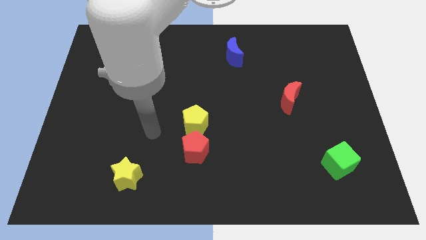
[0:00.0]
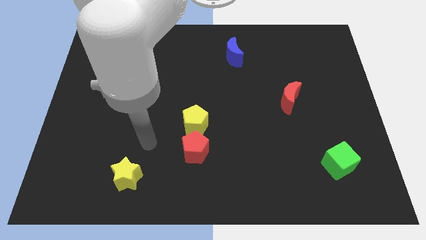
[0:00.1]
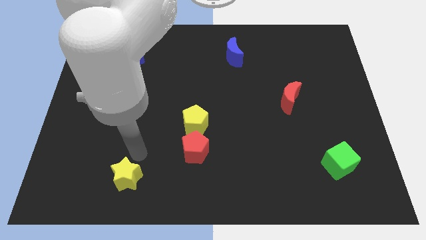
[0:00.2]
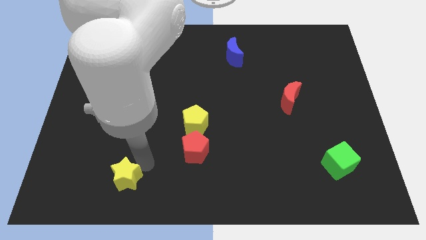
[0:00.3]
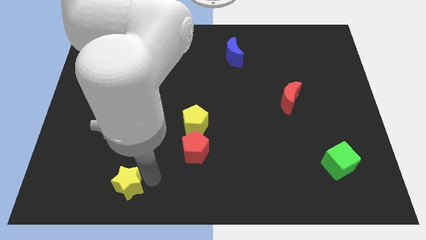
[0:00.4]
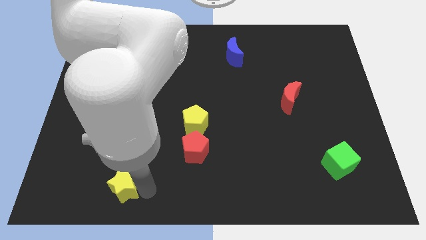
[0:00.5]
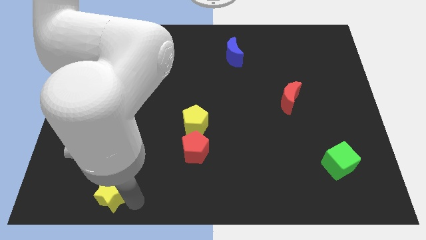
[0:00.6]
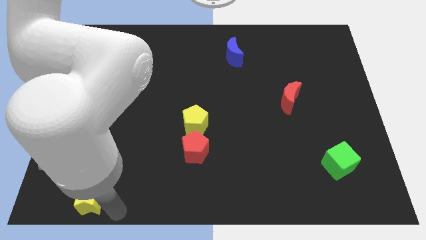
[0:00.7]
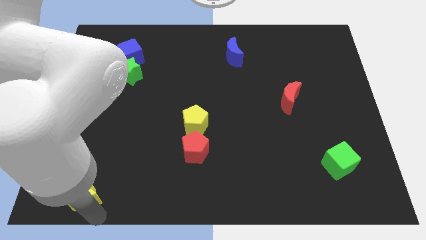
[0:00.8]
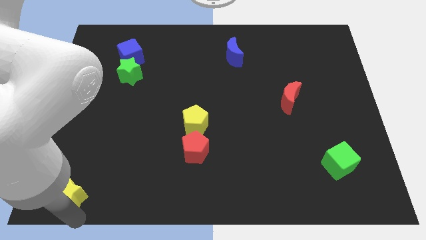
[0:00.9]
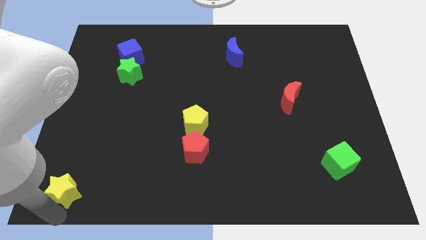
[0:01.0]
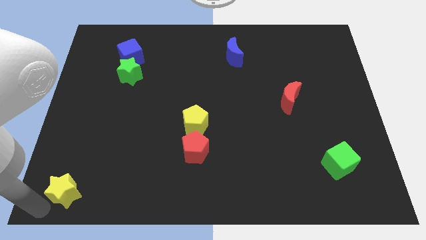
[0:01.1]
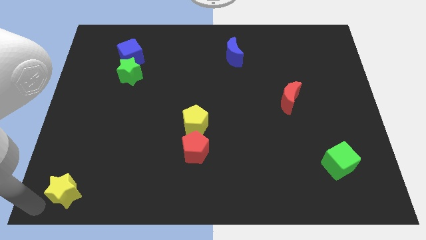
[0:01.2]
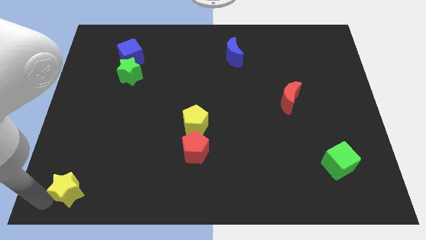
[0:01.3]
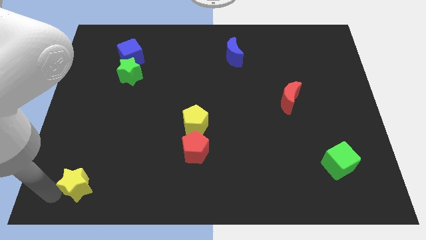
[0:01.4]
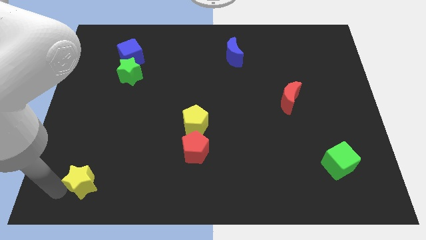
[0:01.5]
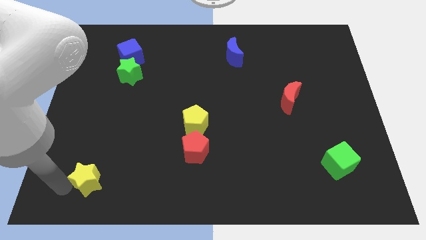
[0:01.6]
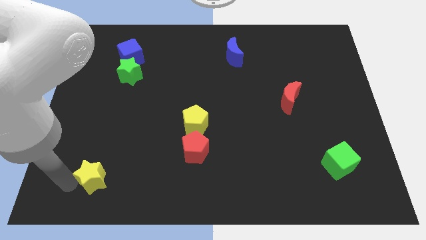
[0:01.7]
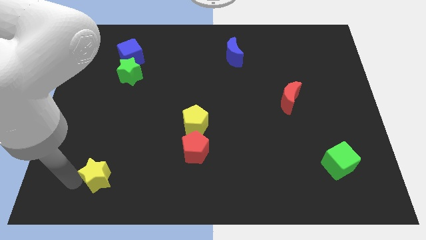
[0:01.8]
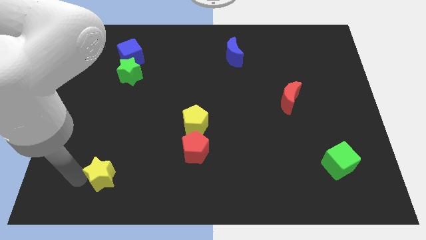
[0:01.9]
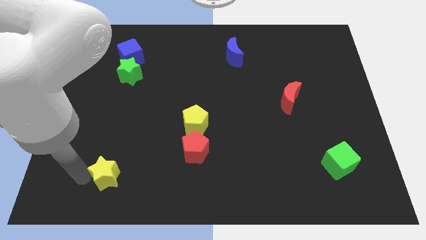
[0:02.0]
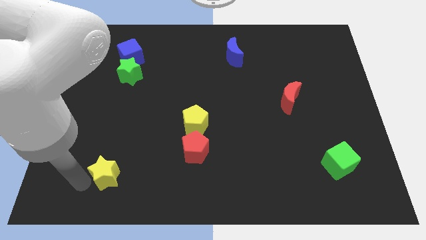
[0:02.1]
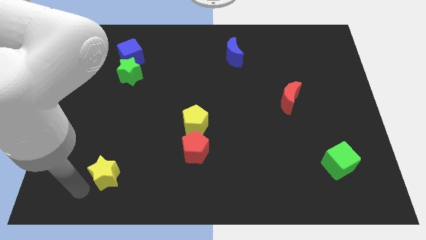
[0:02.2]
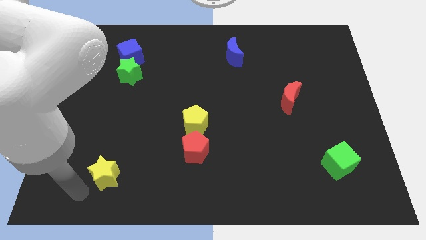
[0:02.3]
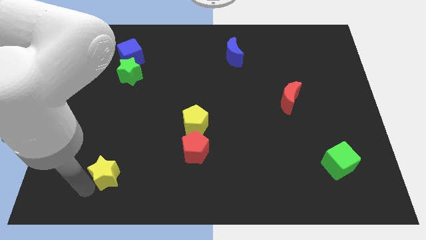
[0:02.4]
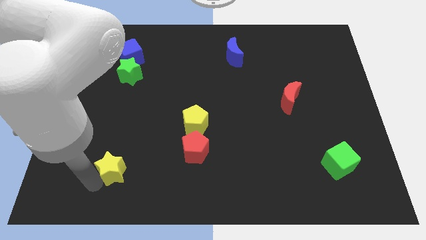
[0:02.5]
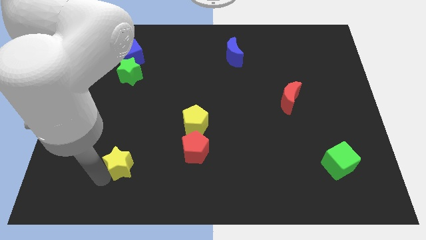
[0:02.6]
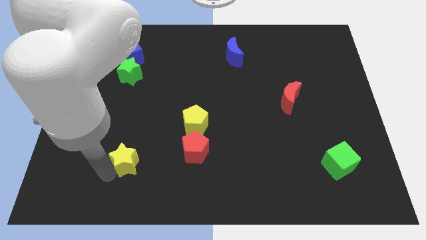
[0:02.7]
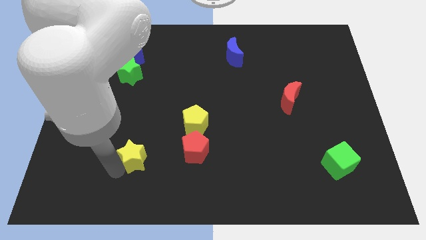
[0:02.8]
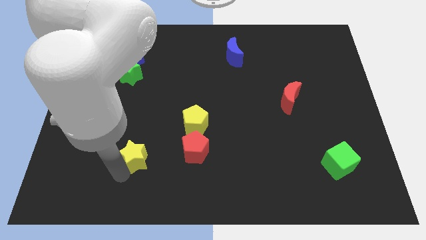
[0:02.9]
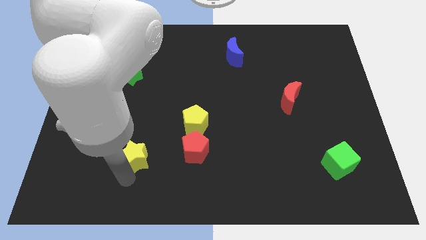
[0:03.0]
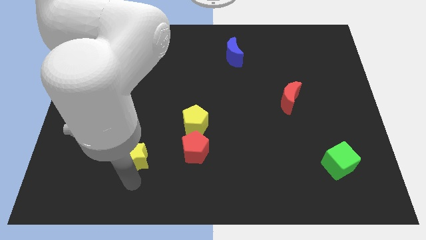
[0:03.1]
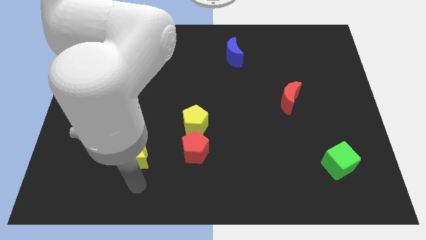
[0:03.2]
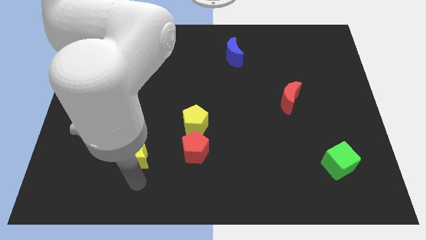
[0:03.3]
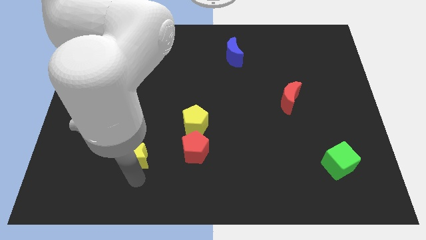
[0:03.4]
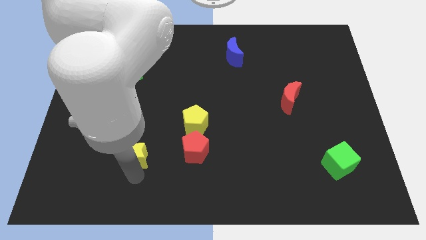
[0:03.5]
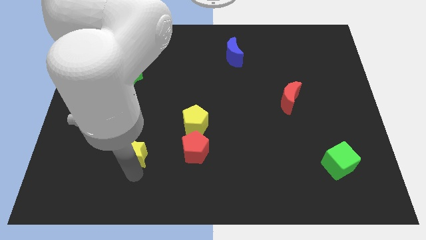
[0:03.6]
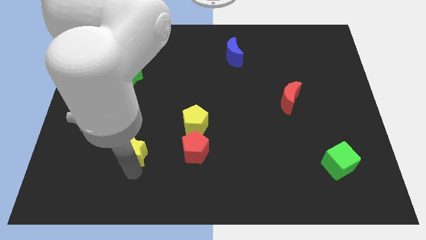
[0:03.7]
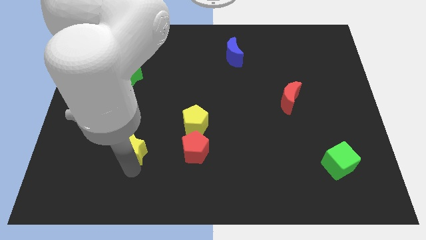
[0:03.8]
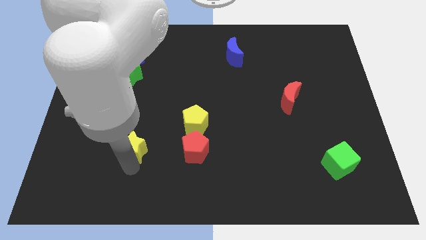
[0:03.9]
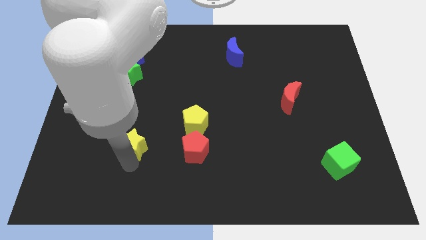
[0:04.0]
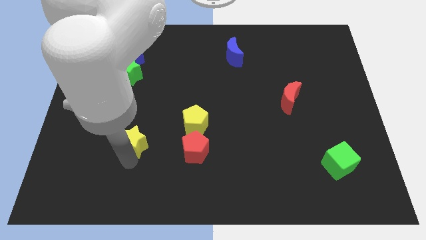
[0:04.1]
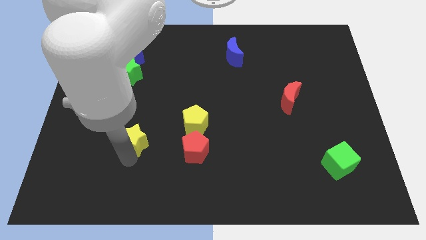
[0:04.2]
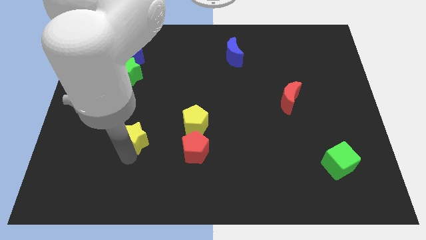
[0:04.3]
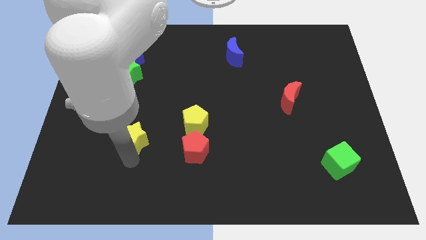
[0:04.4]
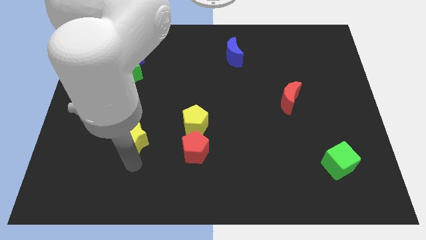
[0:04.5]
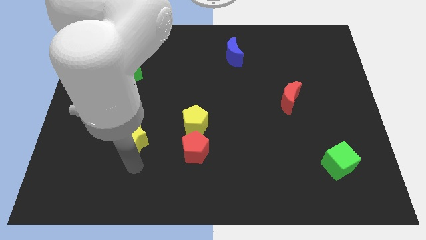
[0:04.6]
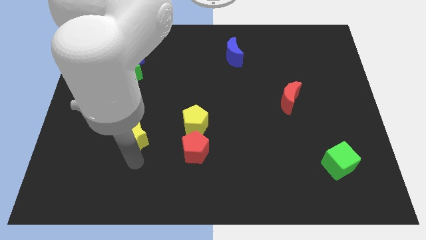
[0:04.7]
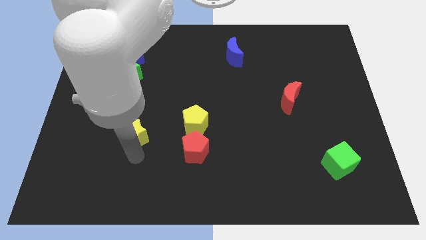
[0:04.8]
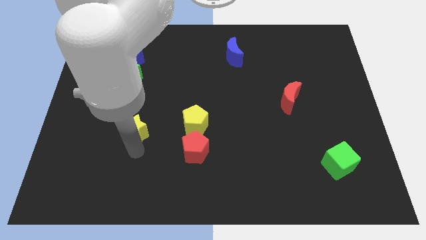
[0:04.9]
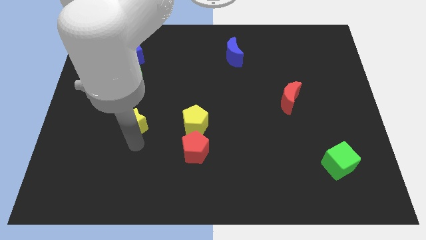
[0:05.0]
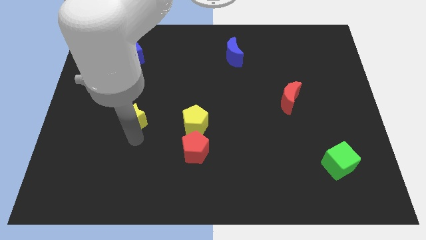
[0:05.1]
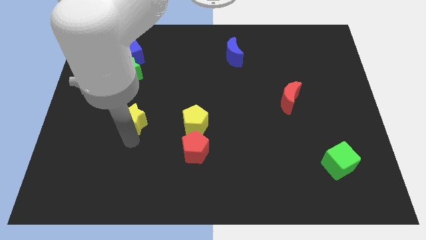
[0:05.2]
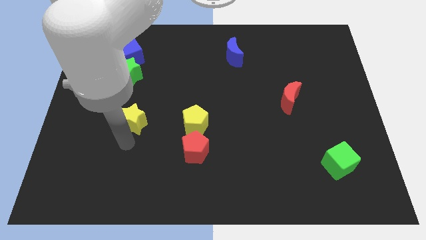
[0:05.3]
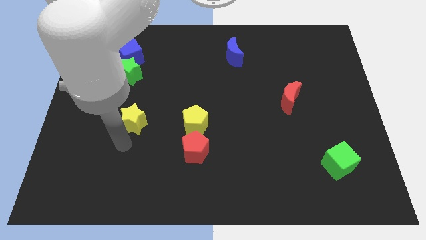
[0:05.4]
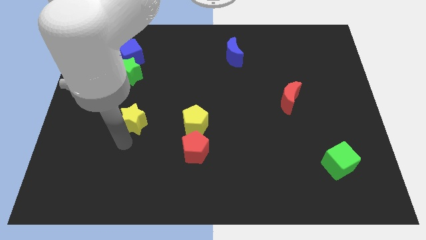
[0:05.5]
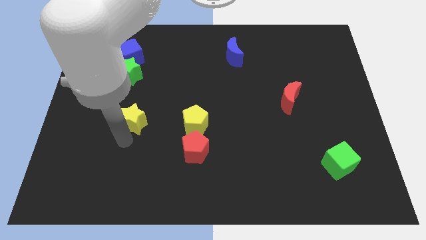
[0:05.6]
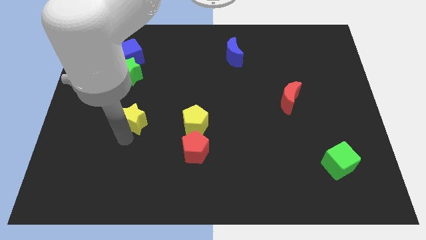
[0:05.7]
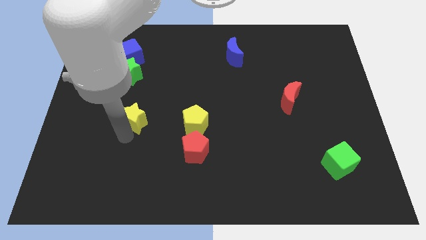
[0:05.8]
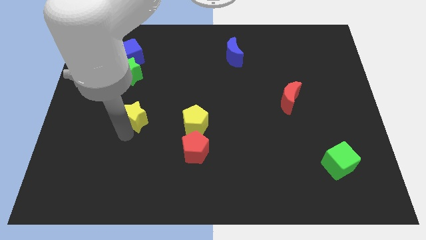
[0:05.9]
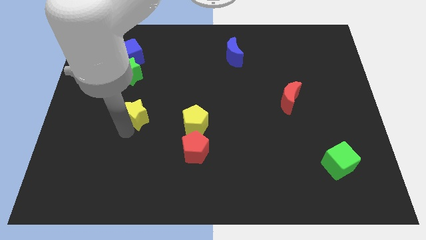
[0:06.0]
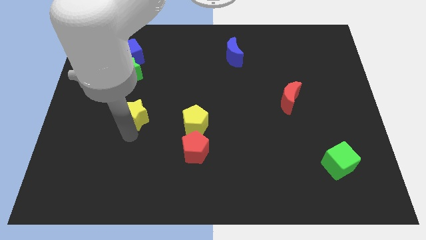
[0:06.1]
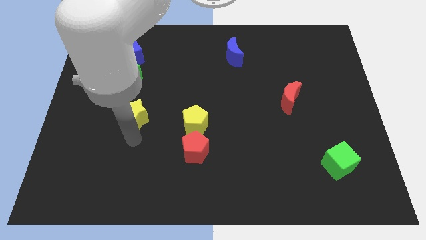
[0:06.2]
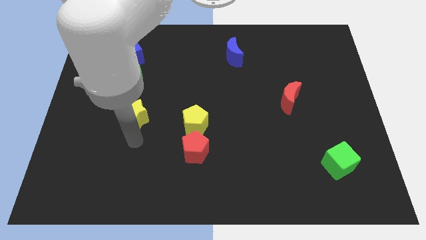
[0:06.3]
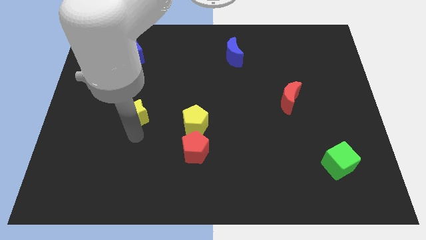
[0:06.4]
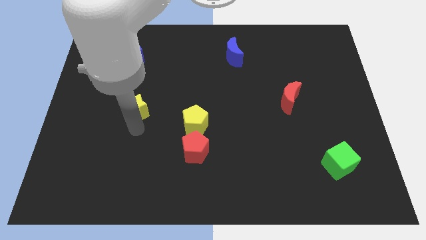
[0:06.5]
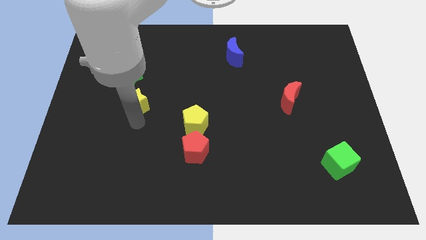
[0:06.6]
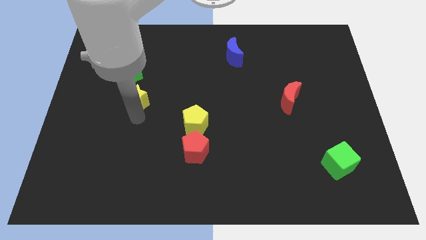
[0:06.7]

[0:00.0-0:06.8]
move the yellow star up

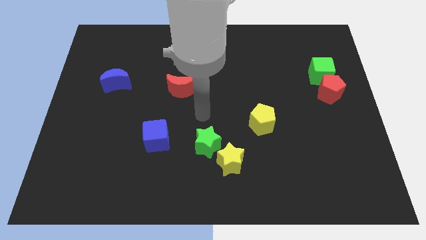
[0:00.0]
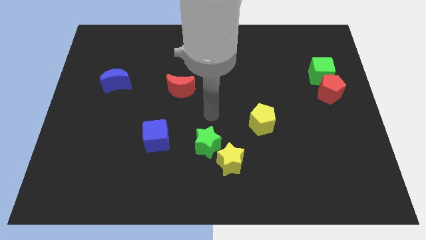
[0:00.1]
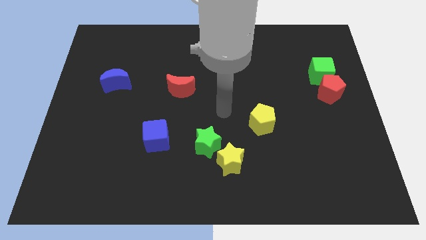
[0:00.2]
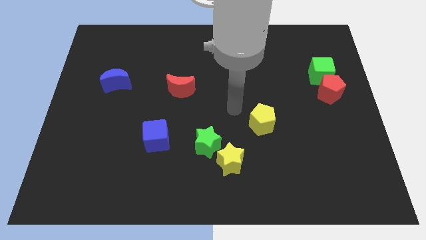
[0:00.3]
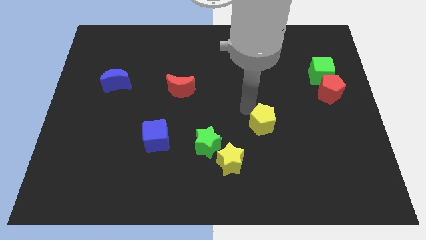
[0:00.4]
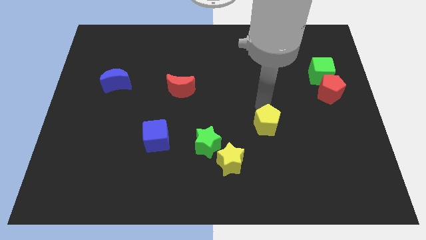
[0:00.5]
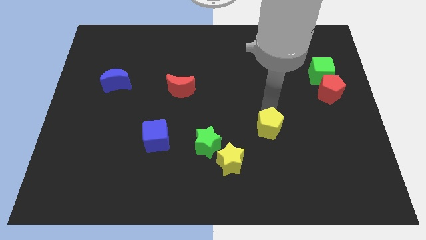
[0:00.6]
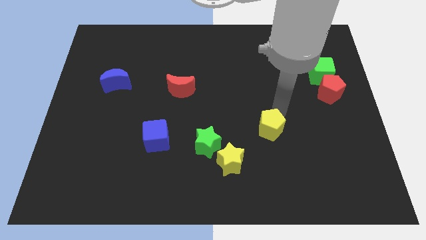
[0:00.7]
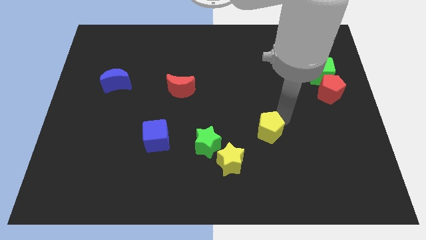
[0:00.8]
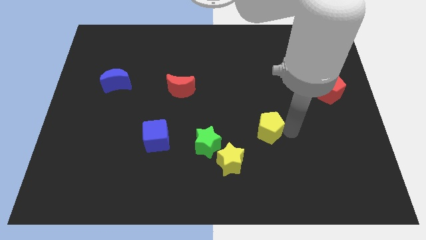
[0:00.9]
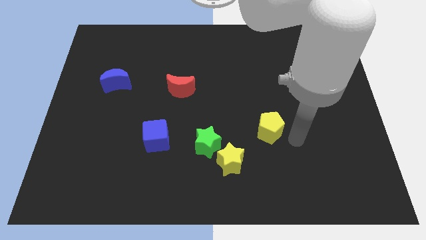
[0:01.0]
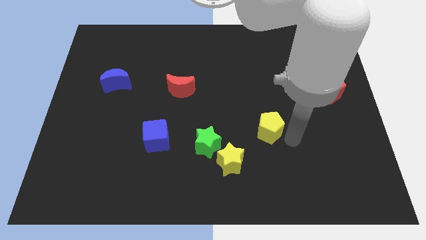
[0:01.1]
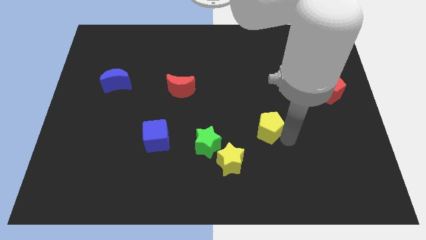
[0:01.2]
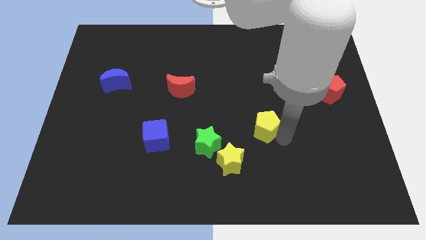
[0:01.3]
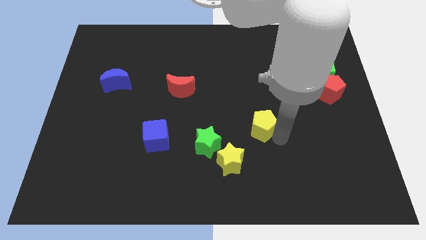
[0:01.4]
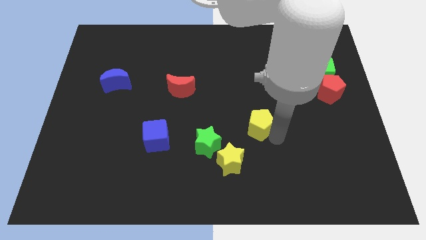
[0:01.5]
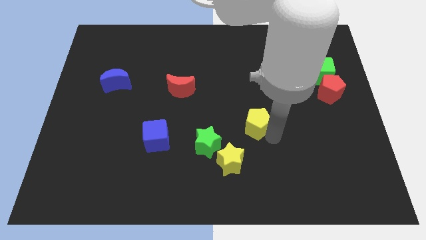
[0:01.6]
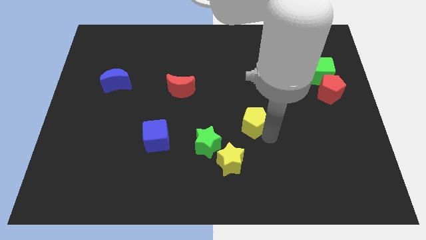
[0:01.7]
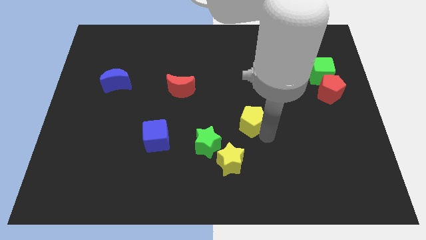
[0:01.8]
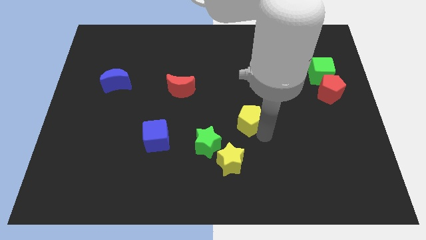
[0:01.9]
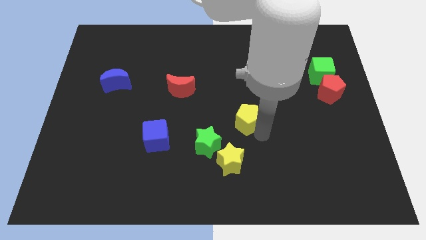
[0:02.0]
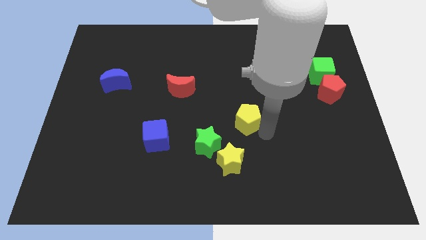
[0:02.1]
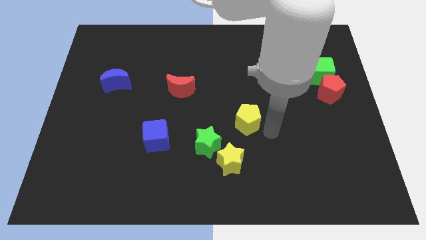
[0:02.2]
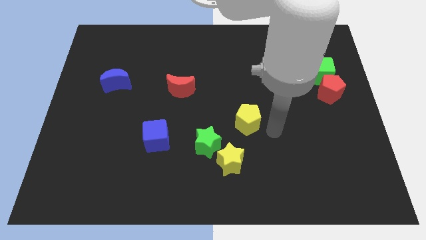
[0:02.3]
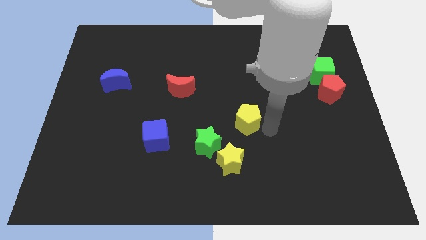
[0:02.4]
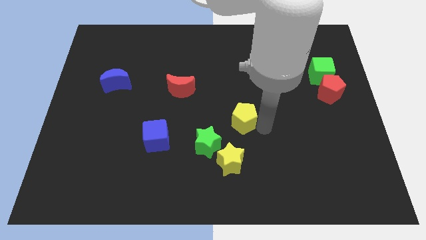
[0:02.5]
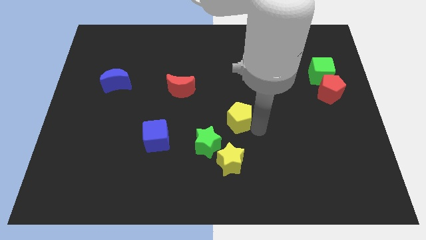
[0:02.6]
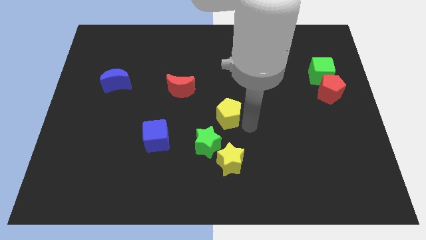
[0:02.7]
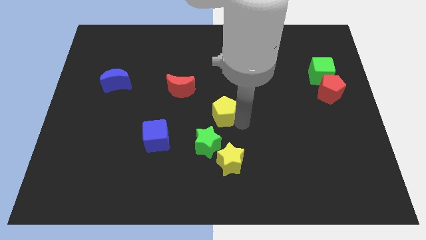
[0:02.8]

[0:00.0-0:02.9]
move the yellow pentagon slightly upwards and left diagonally
